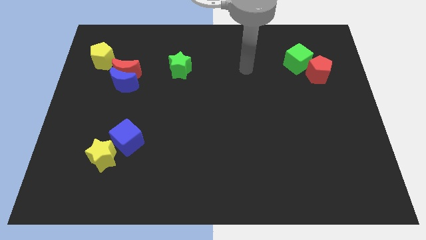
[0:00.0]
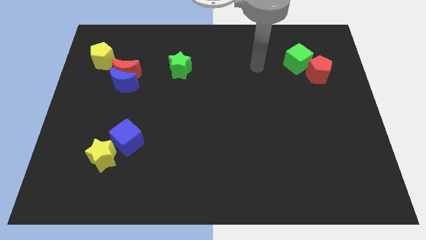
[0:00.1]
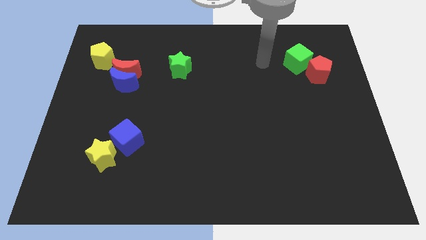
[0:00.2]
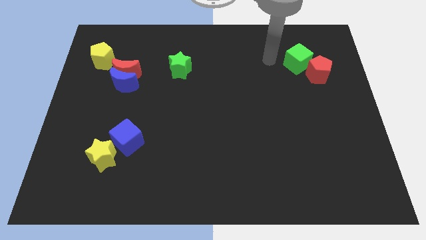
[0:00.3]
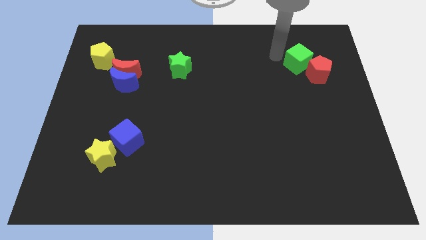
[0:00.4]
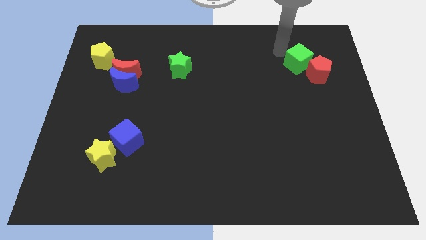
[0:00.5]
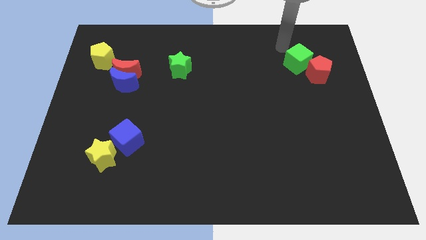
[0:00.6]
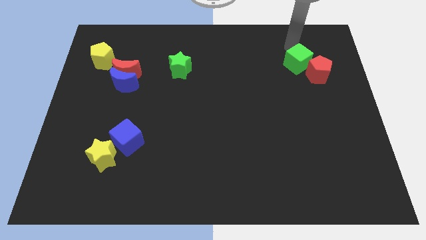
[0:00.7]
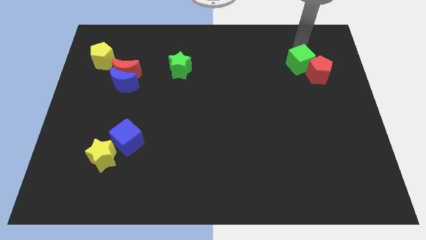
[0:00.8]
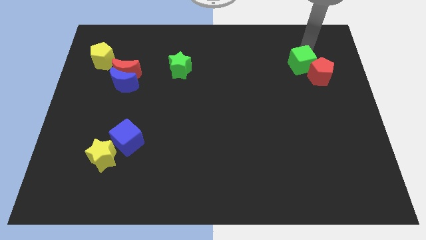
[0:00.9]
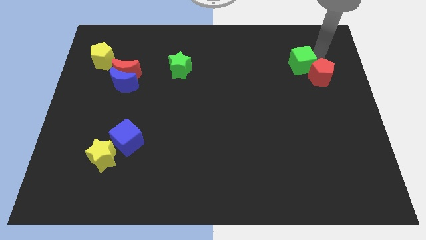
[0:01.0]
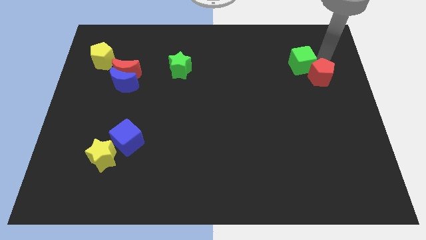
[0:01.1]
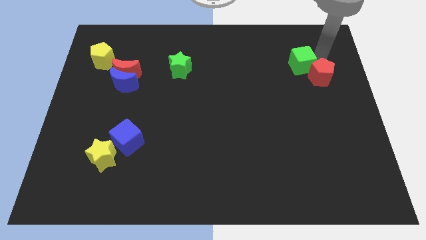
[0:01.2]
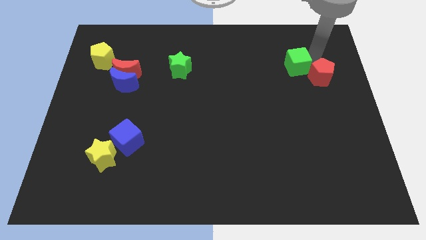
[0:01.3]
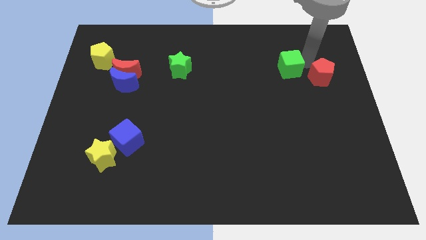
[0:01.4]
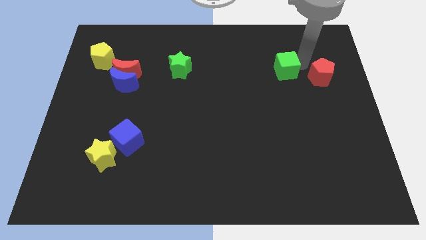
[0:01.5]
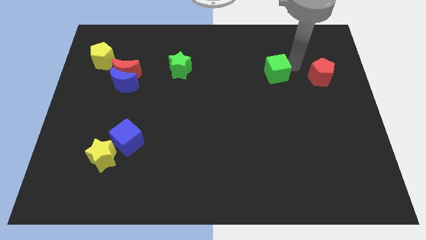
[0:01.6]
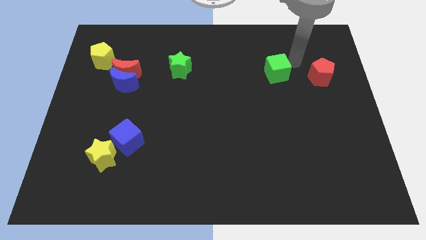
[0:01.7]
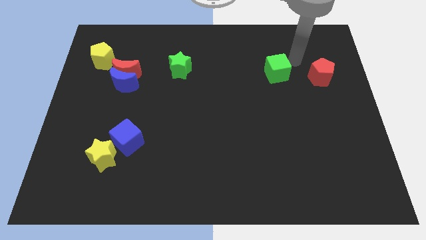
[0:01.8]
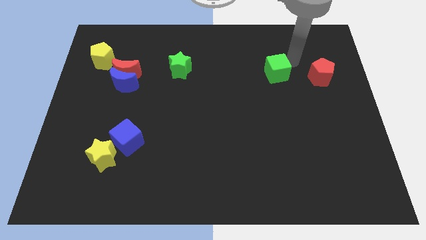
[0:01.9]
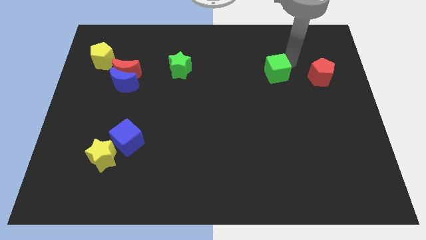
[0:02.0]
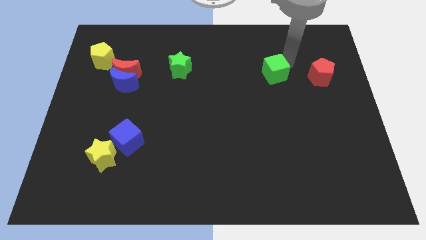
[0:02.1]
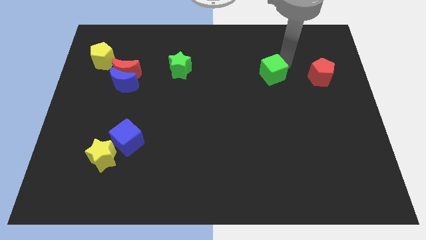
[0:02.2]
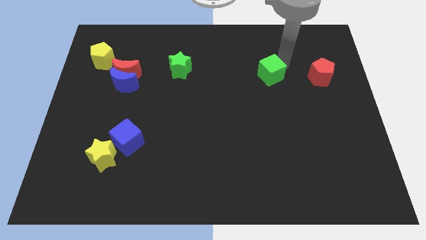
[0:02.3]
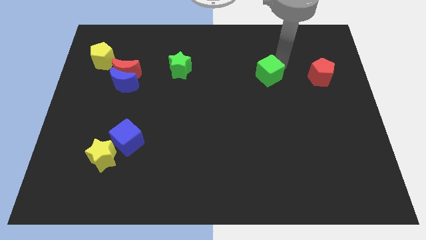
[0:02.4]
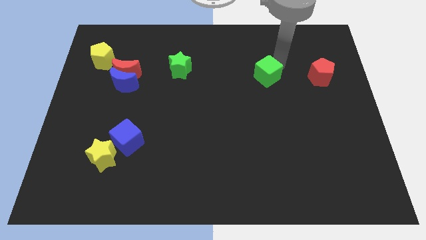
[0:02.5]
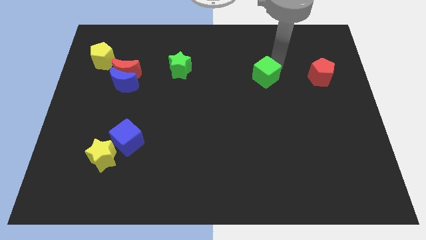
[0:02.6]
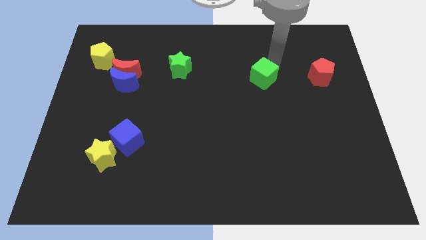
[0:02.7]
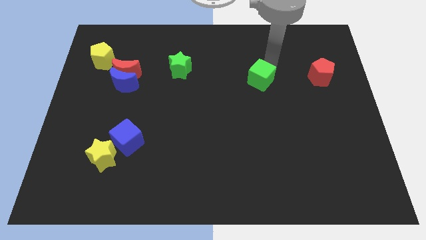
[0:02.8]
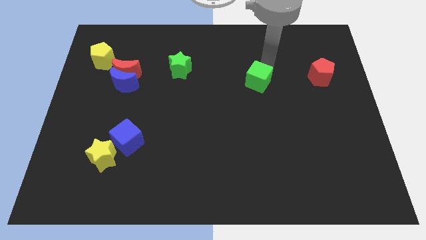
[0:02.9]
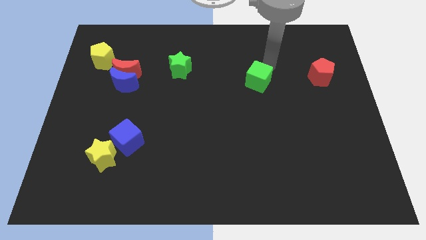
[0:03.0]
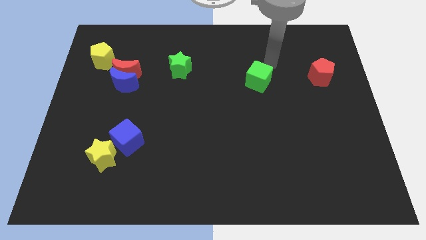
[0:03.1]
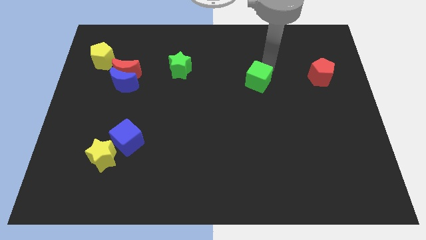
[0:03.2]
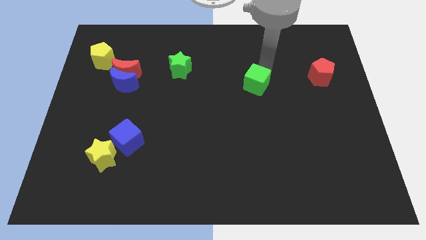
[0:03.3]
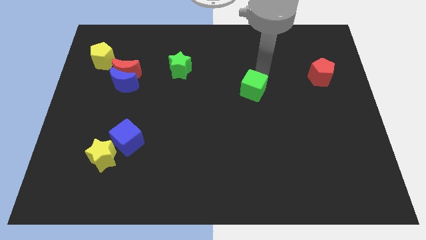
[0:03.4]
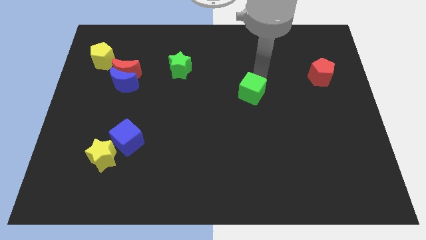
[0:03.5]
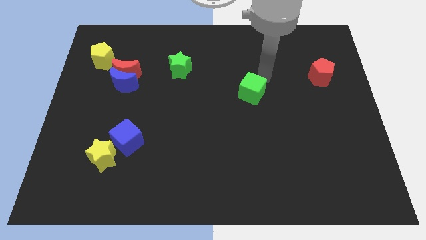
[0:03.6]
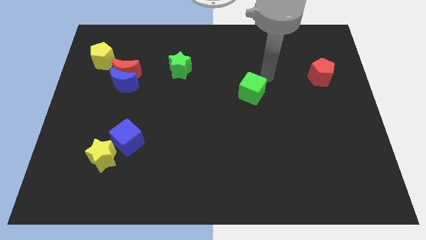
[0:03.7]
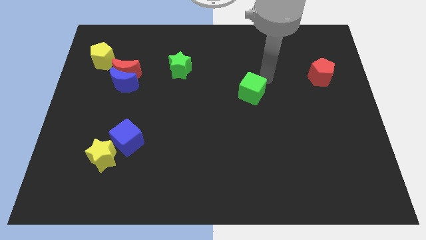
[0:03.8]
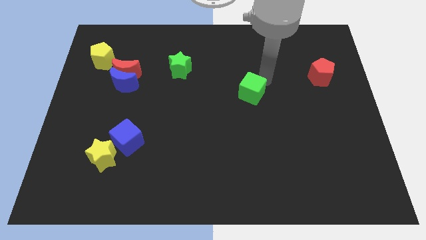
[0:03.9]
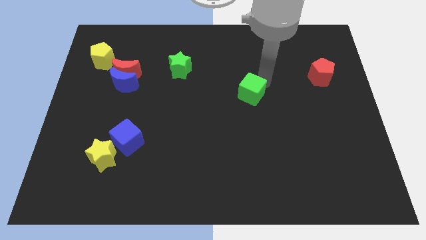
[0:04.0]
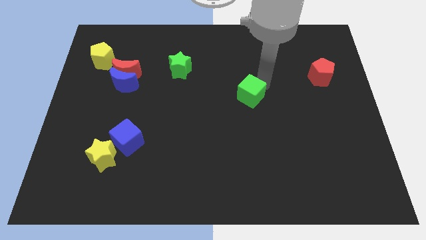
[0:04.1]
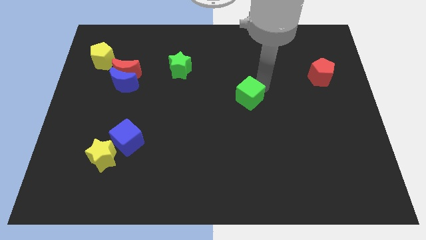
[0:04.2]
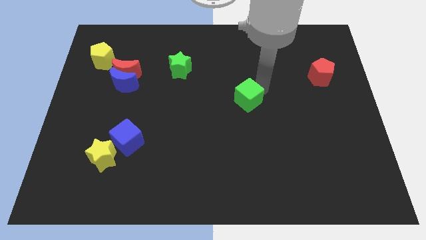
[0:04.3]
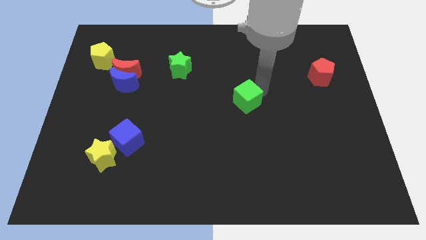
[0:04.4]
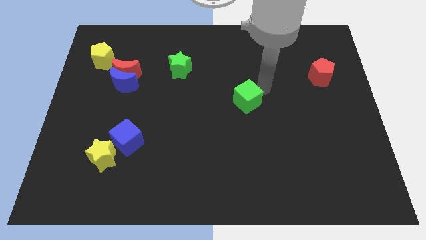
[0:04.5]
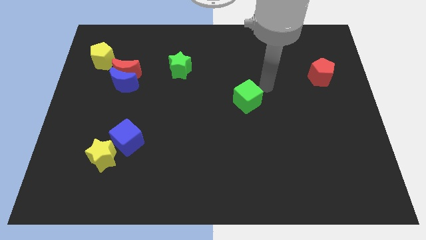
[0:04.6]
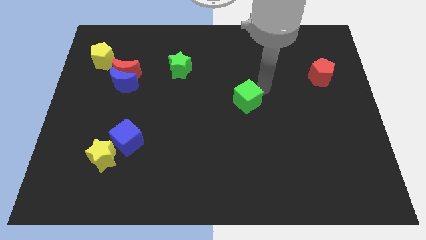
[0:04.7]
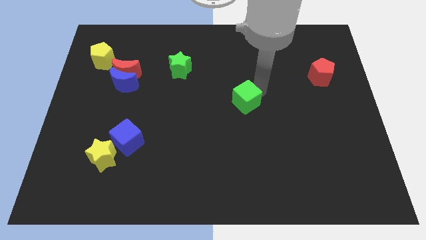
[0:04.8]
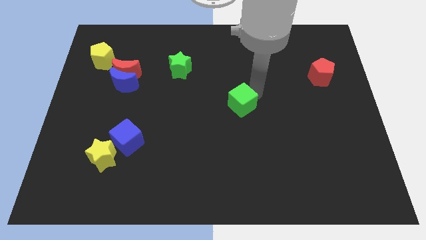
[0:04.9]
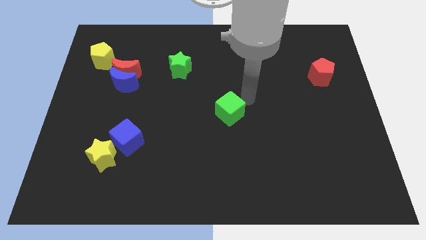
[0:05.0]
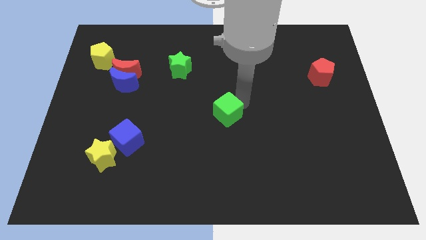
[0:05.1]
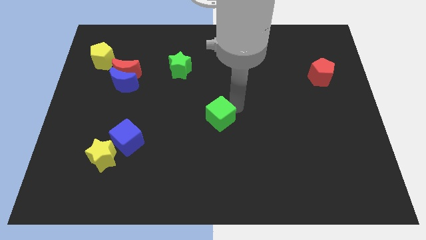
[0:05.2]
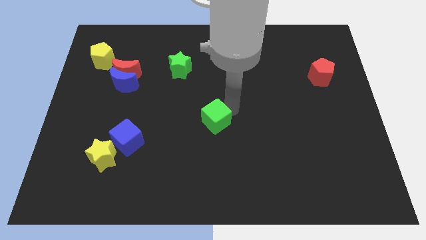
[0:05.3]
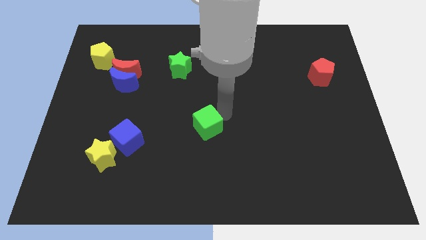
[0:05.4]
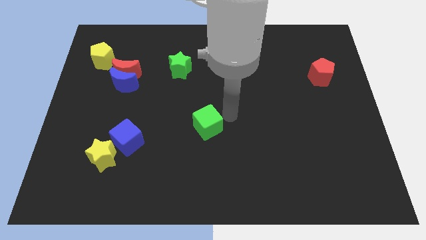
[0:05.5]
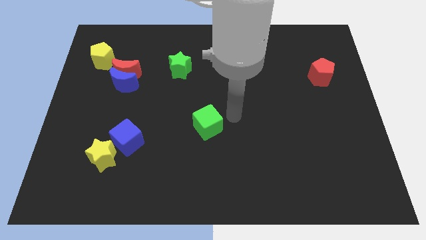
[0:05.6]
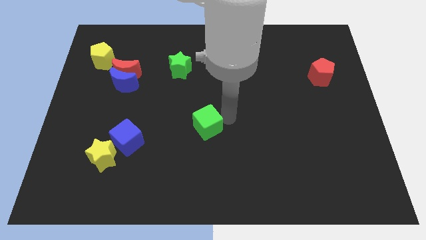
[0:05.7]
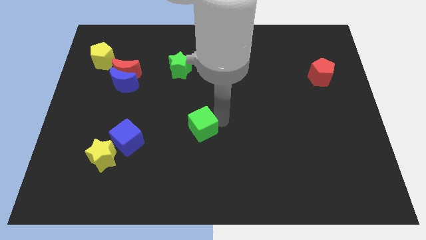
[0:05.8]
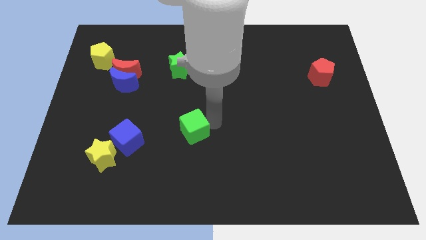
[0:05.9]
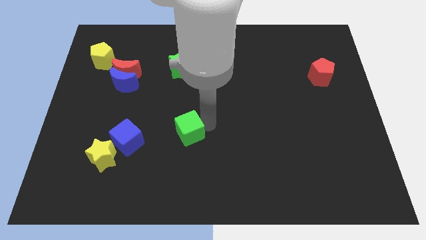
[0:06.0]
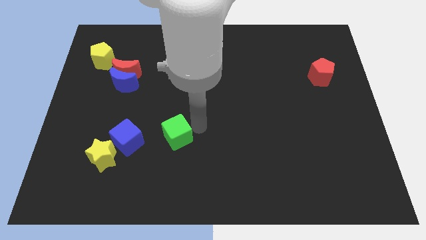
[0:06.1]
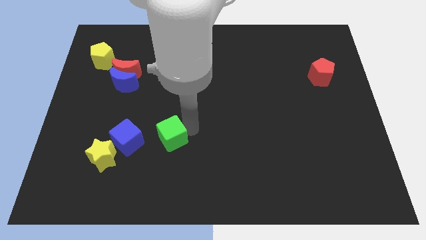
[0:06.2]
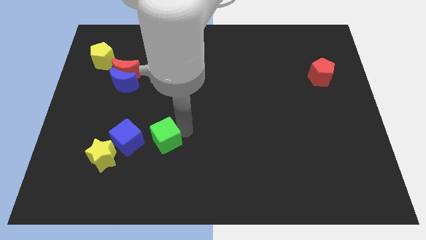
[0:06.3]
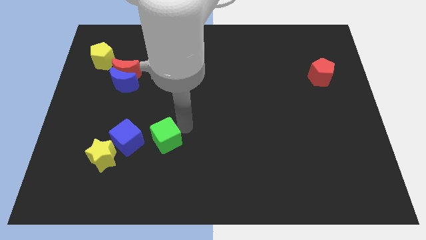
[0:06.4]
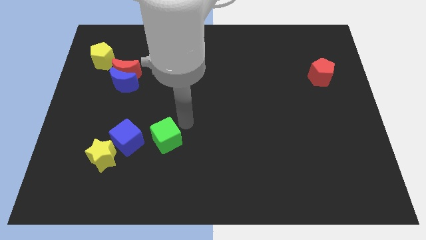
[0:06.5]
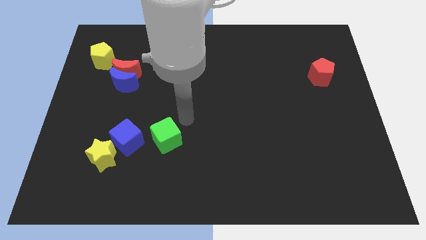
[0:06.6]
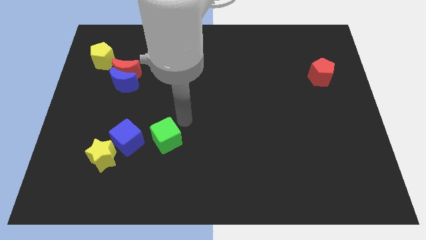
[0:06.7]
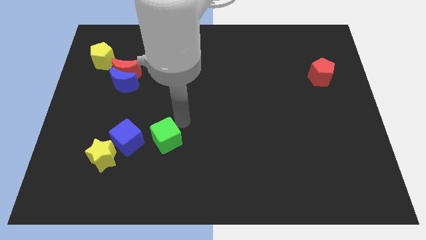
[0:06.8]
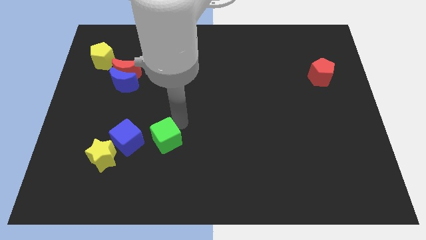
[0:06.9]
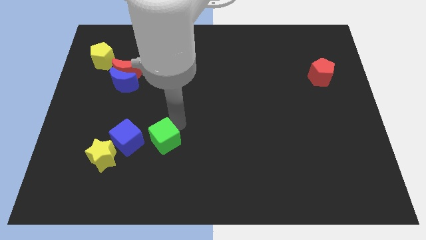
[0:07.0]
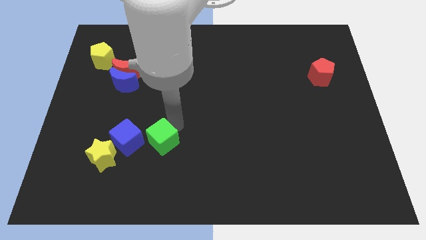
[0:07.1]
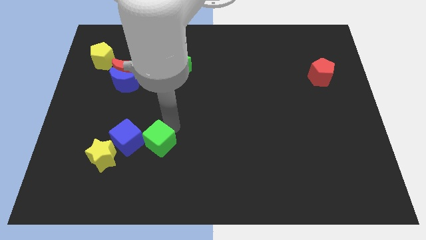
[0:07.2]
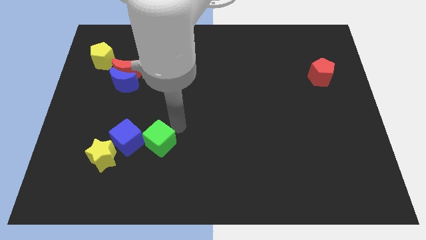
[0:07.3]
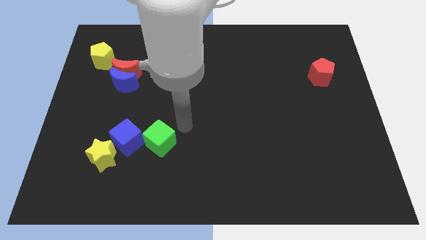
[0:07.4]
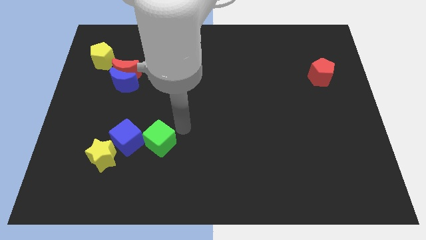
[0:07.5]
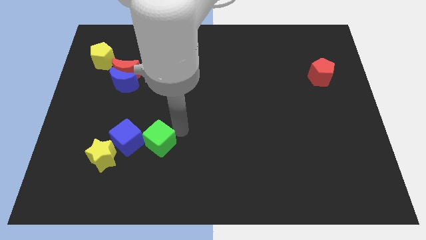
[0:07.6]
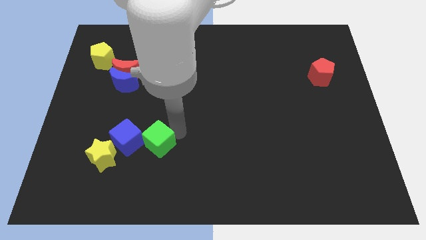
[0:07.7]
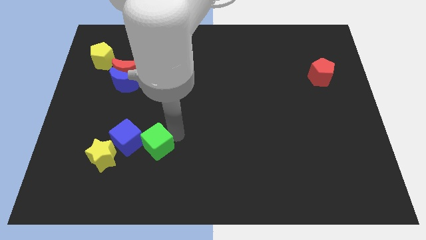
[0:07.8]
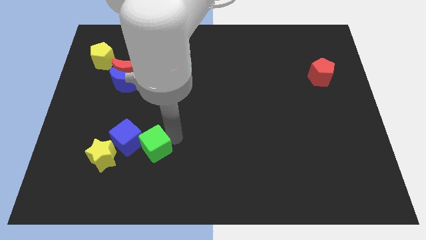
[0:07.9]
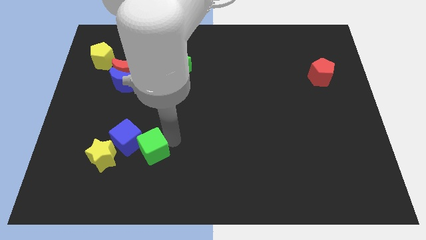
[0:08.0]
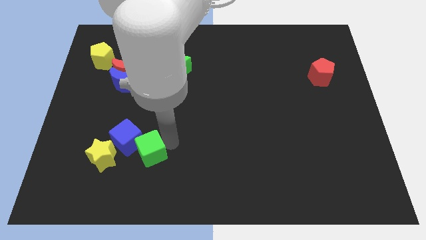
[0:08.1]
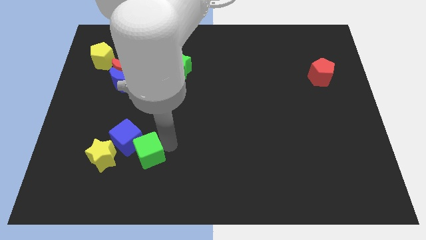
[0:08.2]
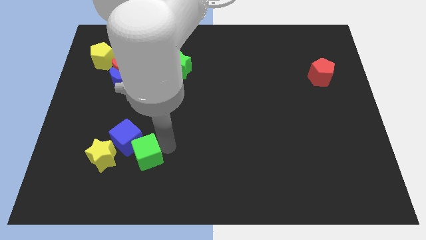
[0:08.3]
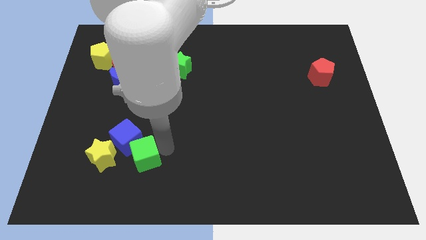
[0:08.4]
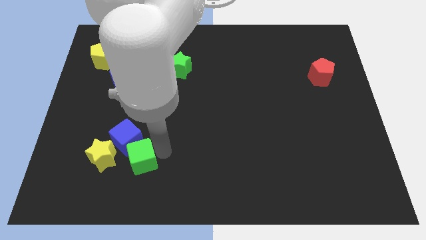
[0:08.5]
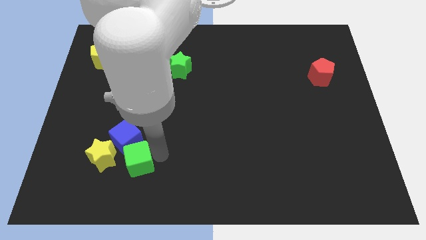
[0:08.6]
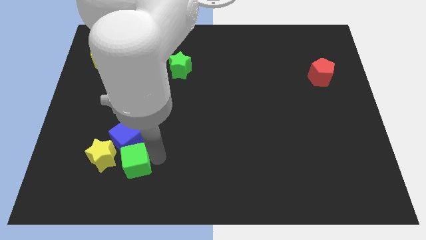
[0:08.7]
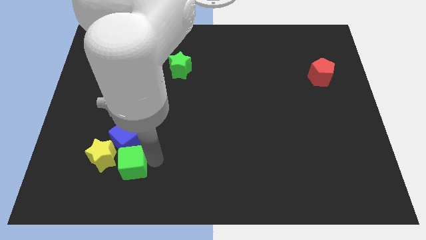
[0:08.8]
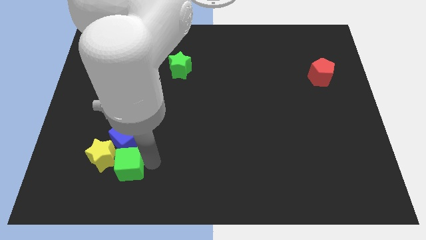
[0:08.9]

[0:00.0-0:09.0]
put the green cube next to the yellow star
